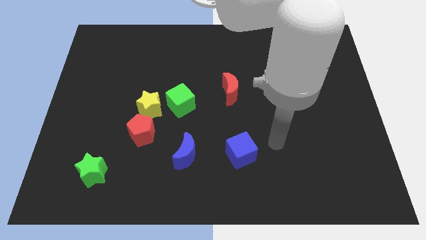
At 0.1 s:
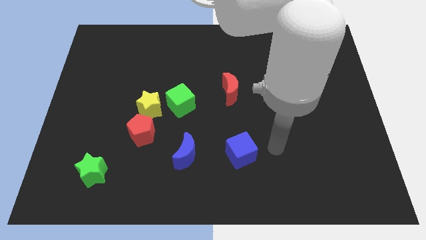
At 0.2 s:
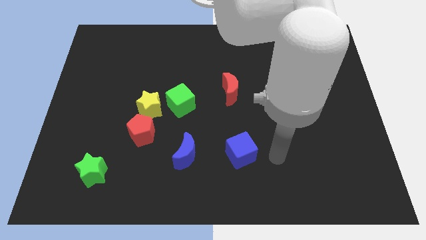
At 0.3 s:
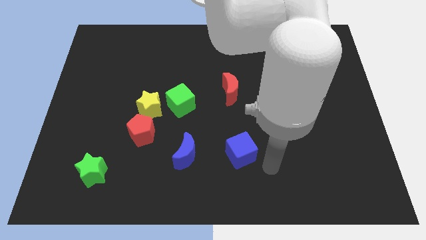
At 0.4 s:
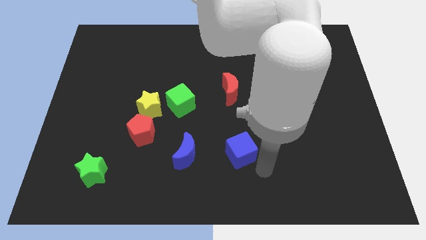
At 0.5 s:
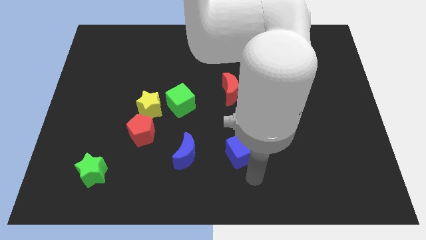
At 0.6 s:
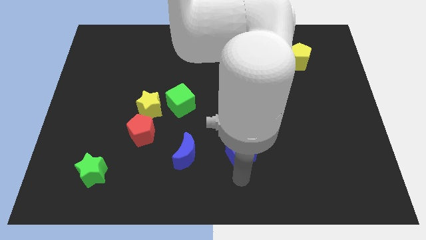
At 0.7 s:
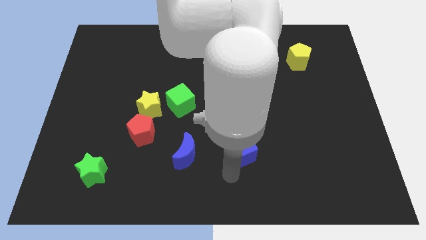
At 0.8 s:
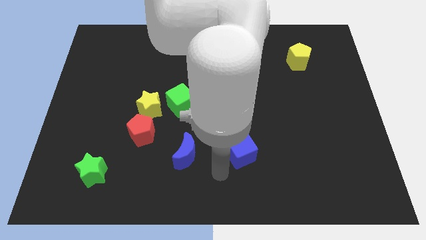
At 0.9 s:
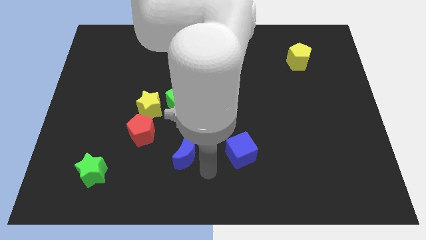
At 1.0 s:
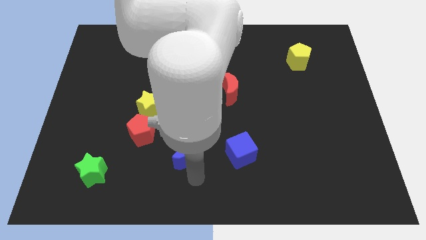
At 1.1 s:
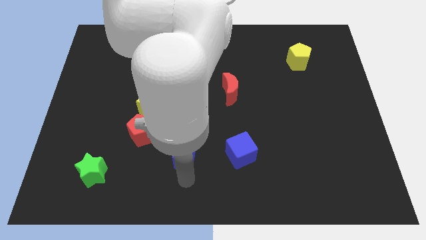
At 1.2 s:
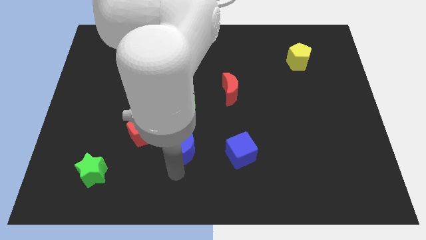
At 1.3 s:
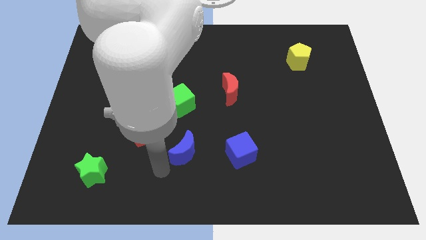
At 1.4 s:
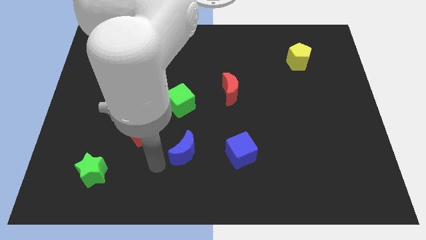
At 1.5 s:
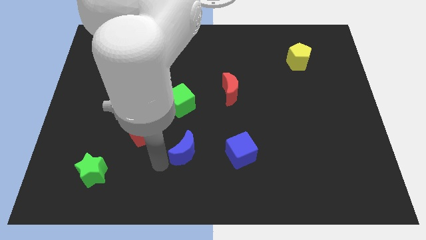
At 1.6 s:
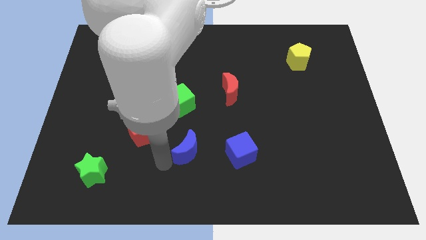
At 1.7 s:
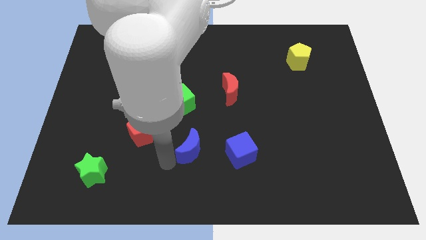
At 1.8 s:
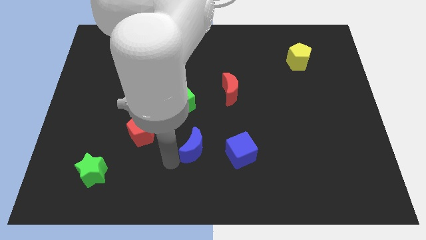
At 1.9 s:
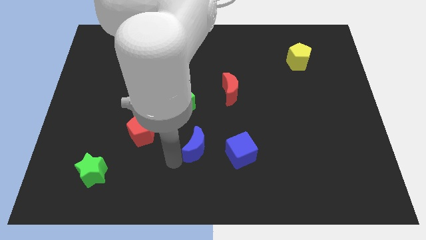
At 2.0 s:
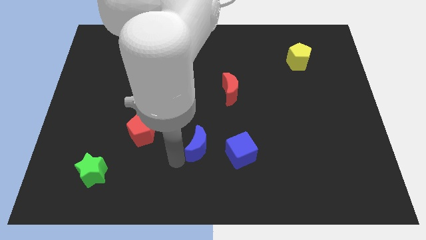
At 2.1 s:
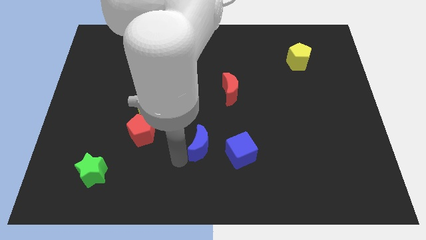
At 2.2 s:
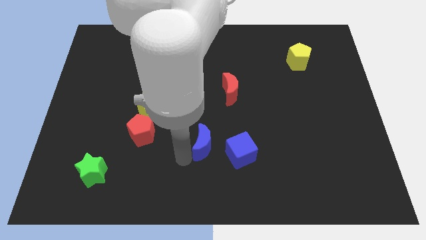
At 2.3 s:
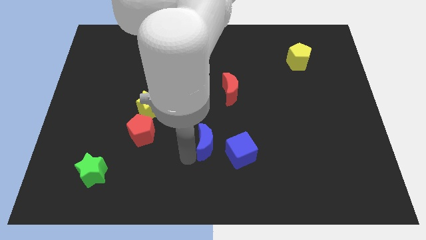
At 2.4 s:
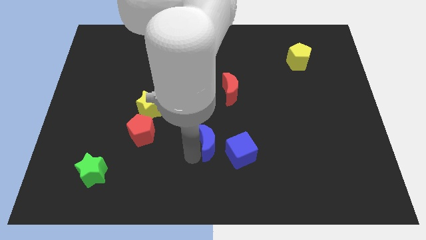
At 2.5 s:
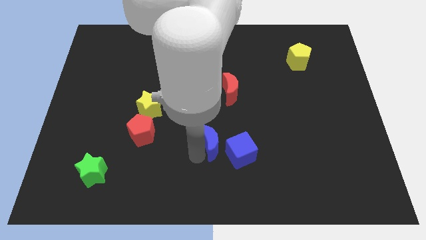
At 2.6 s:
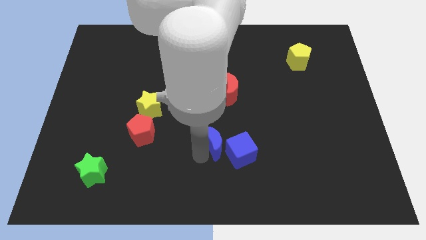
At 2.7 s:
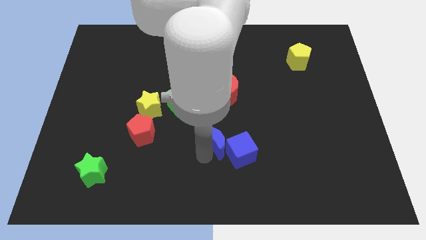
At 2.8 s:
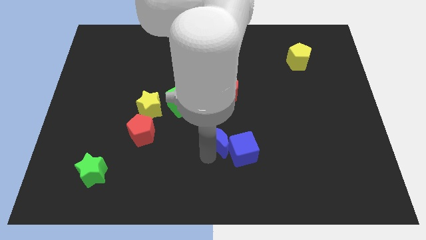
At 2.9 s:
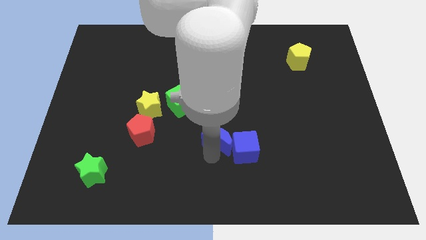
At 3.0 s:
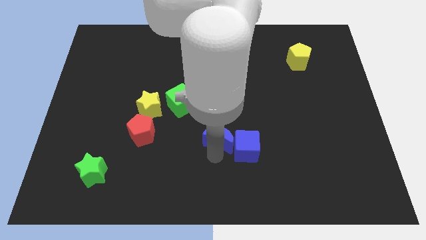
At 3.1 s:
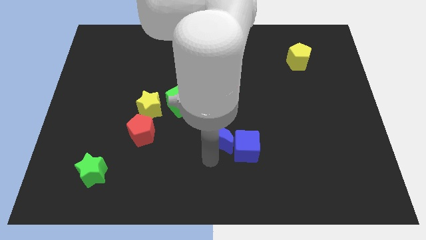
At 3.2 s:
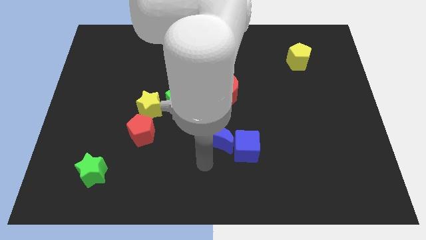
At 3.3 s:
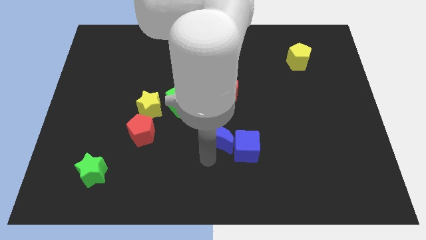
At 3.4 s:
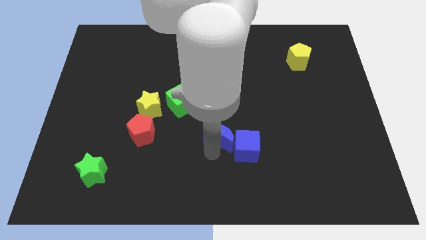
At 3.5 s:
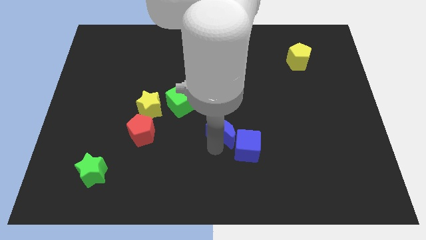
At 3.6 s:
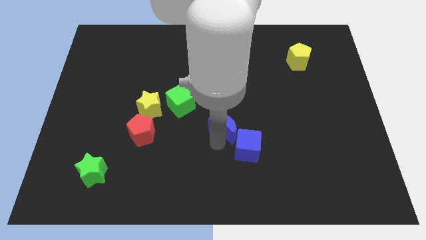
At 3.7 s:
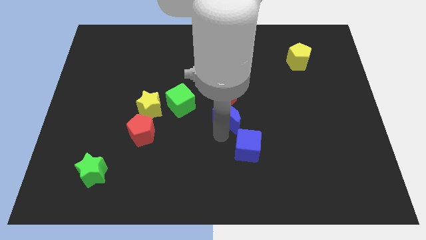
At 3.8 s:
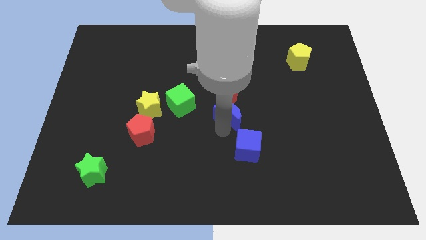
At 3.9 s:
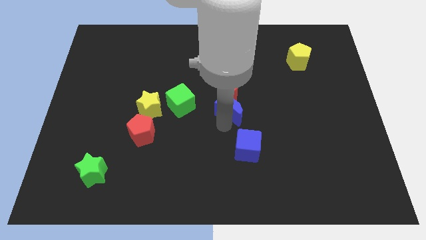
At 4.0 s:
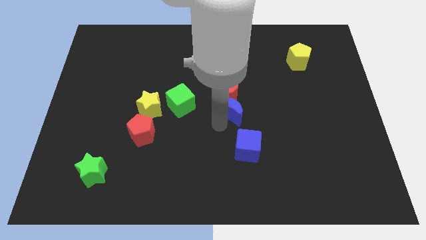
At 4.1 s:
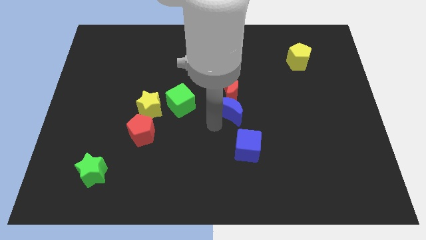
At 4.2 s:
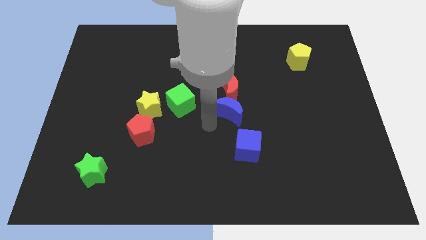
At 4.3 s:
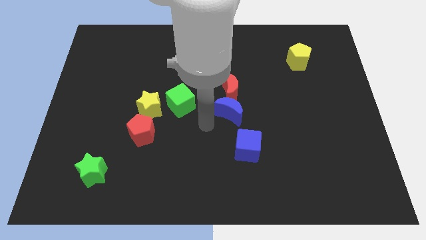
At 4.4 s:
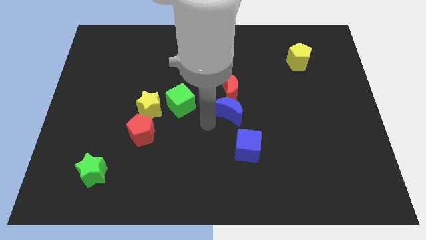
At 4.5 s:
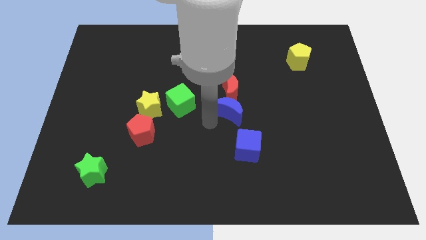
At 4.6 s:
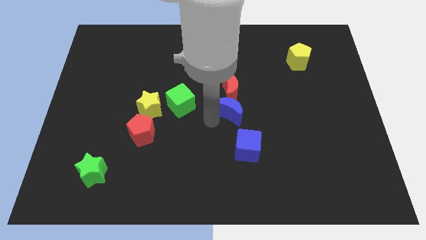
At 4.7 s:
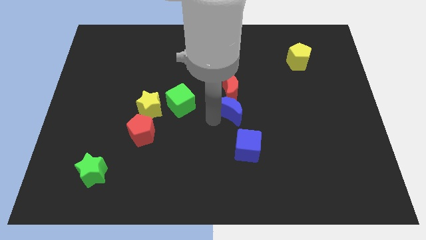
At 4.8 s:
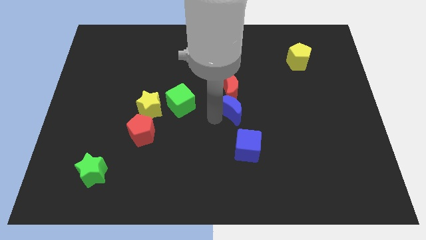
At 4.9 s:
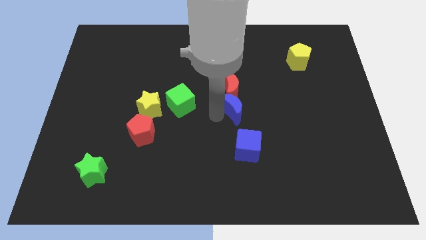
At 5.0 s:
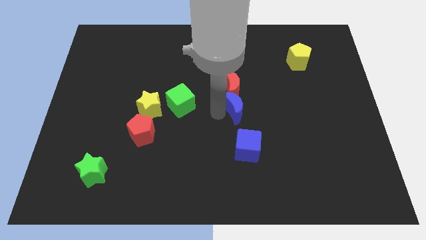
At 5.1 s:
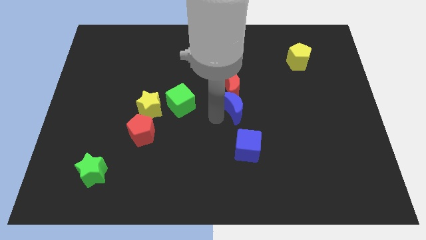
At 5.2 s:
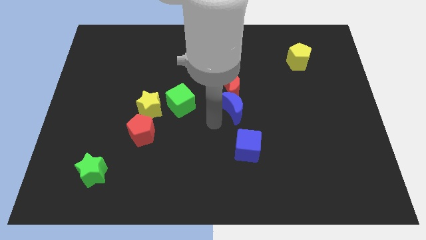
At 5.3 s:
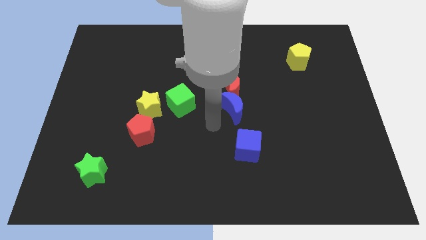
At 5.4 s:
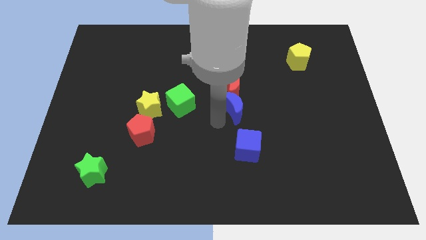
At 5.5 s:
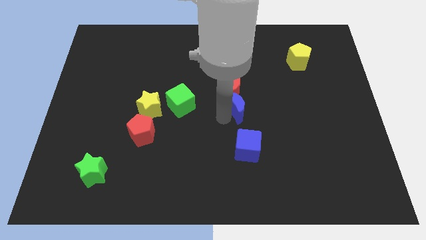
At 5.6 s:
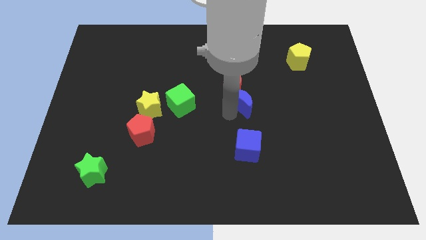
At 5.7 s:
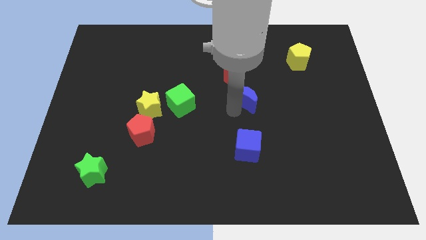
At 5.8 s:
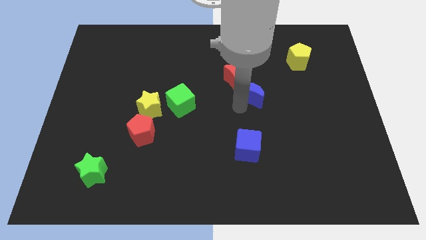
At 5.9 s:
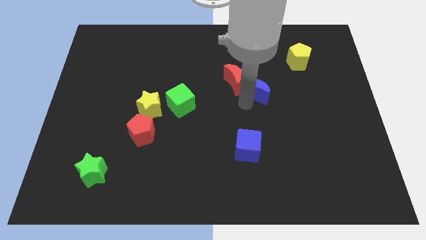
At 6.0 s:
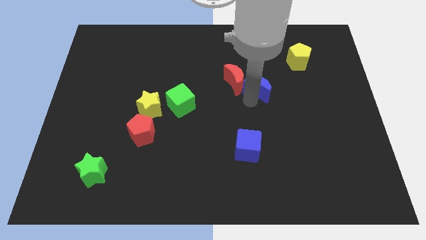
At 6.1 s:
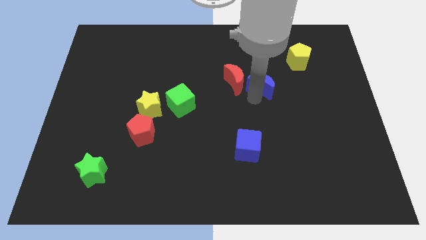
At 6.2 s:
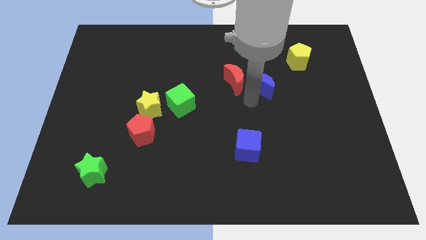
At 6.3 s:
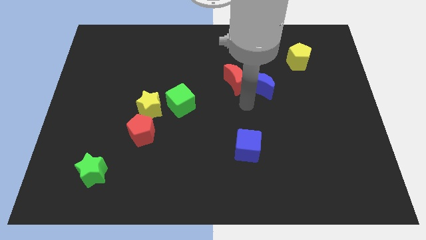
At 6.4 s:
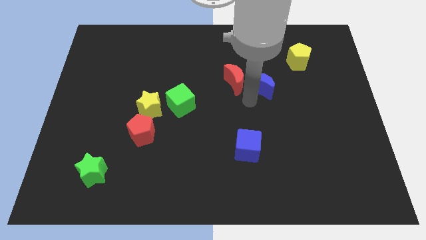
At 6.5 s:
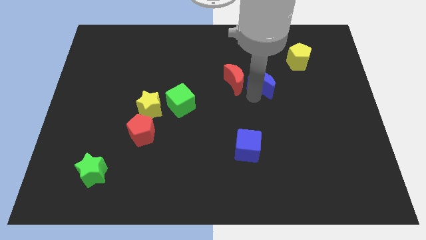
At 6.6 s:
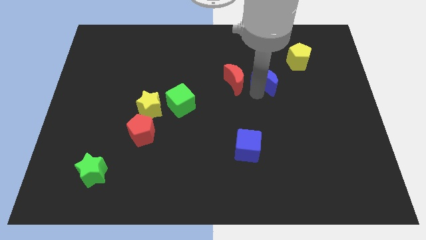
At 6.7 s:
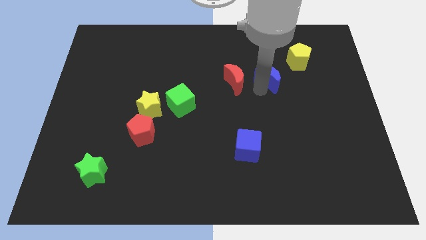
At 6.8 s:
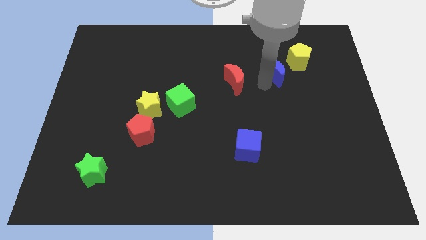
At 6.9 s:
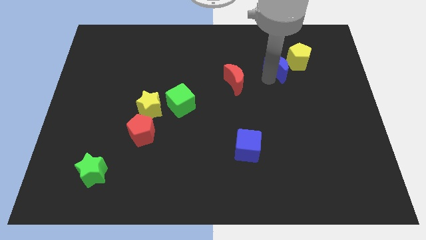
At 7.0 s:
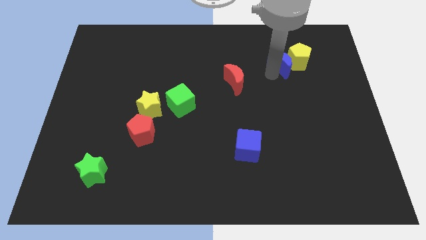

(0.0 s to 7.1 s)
push the blue moon close to the yellow pentagon
